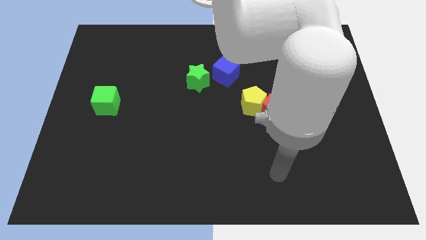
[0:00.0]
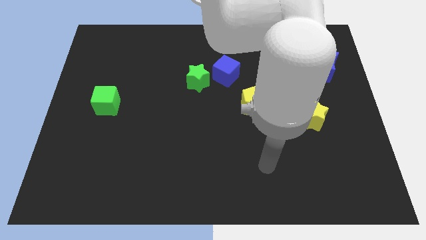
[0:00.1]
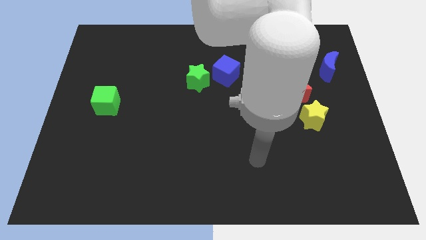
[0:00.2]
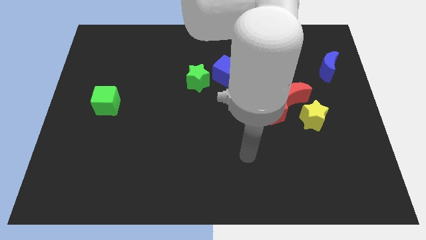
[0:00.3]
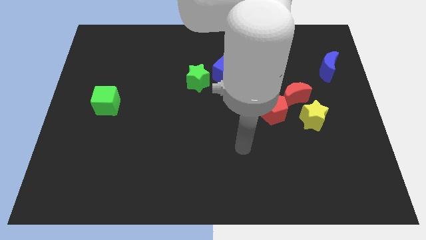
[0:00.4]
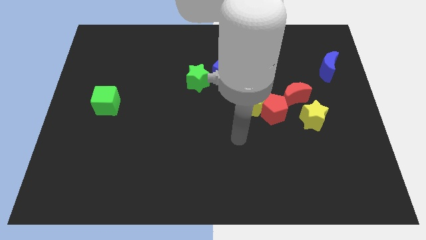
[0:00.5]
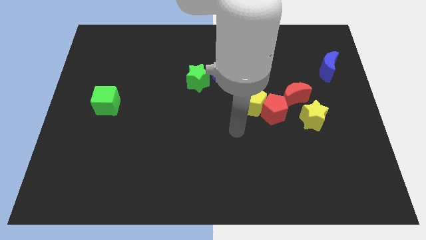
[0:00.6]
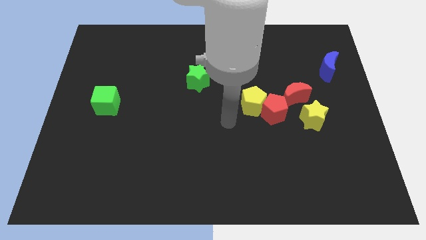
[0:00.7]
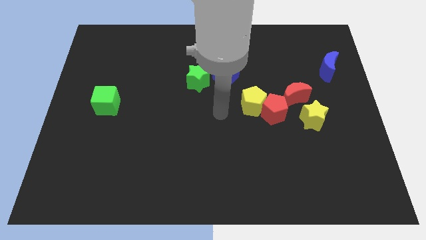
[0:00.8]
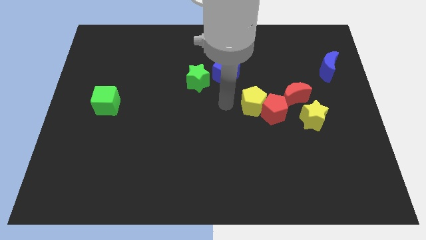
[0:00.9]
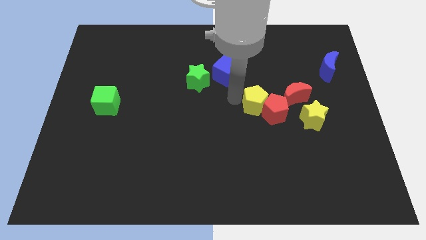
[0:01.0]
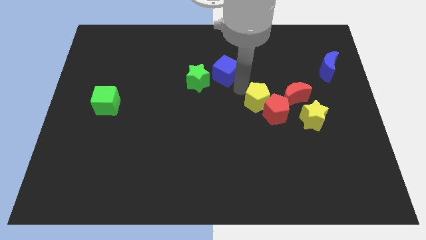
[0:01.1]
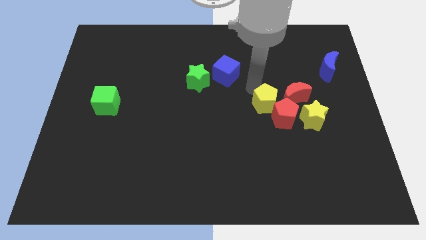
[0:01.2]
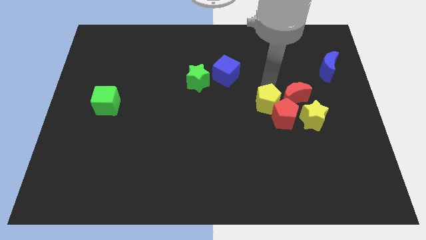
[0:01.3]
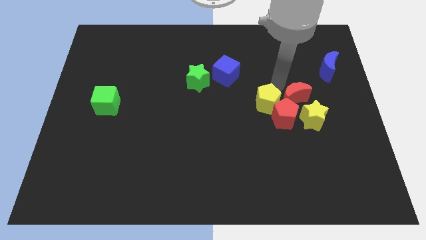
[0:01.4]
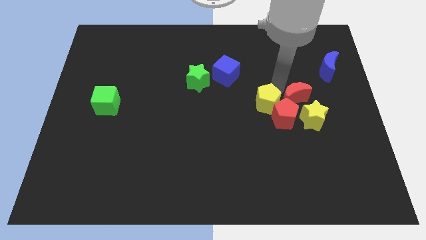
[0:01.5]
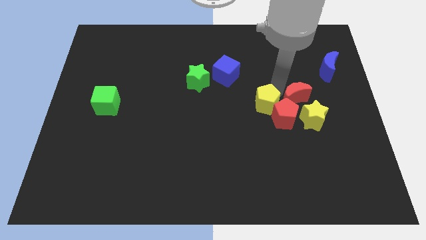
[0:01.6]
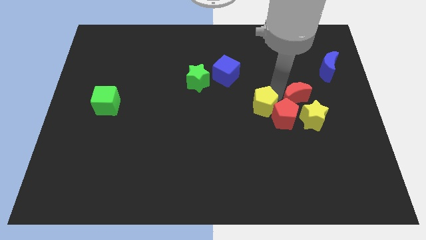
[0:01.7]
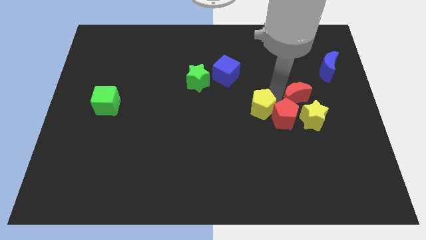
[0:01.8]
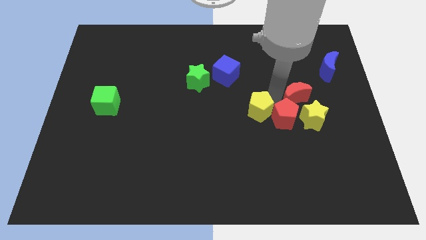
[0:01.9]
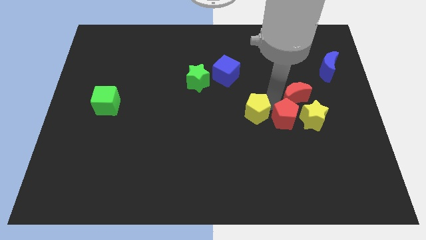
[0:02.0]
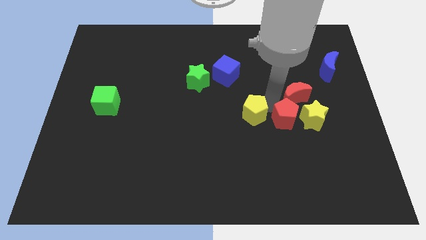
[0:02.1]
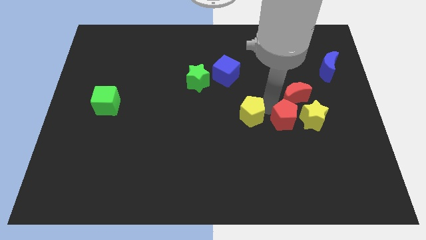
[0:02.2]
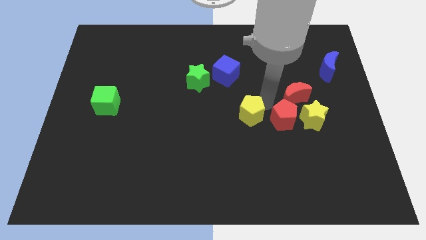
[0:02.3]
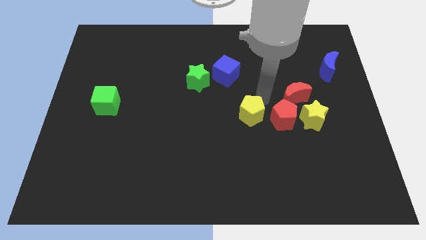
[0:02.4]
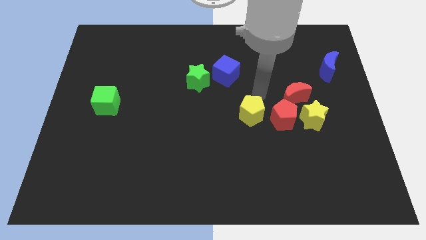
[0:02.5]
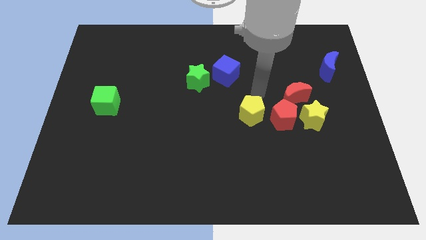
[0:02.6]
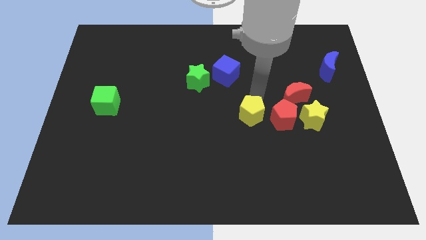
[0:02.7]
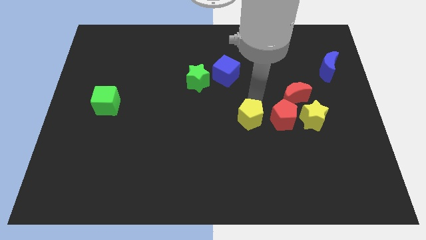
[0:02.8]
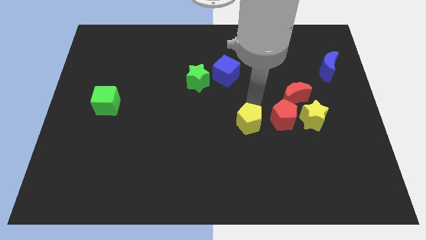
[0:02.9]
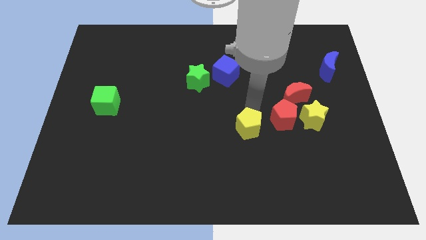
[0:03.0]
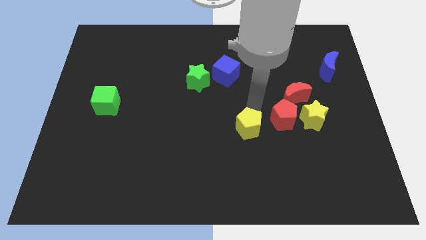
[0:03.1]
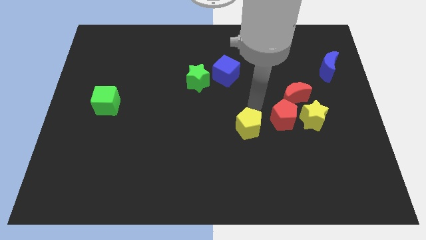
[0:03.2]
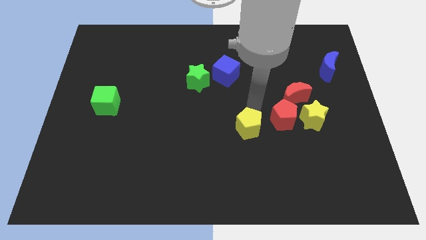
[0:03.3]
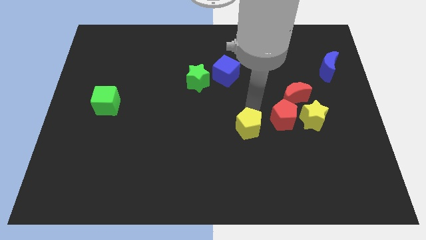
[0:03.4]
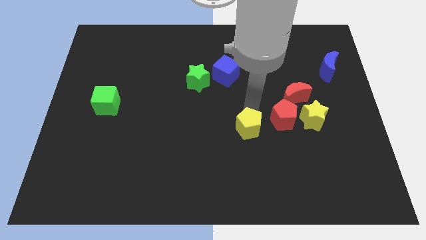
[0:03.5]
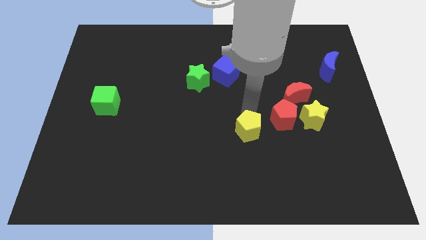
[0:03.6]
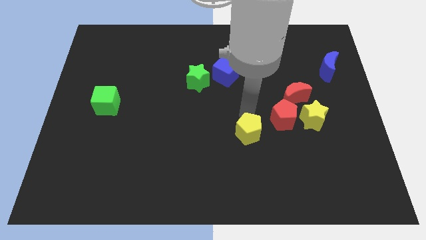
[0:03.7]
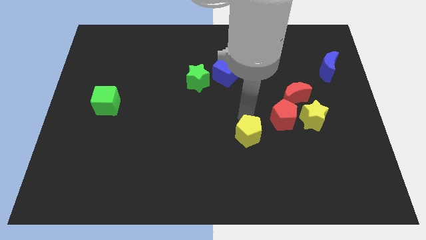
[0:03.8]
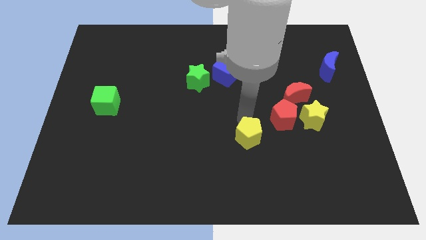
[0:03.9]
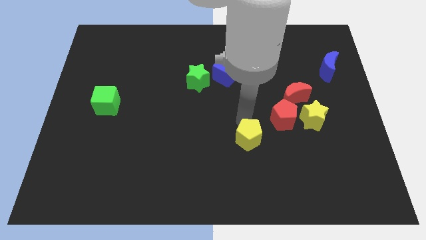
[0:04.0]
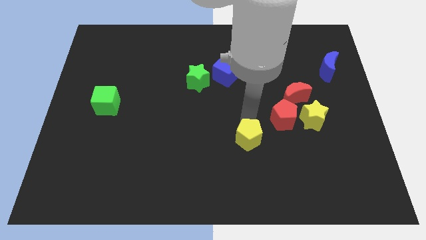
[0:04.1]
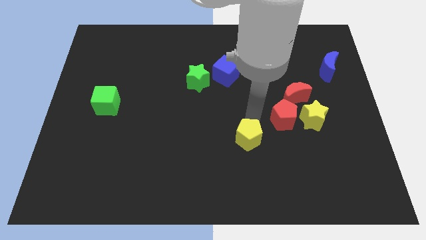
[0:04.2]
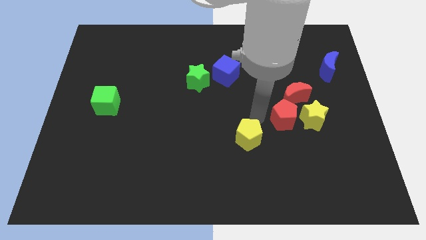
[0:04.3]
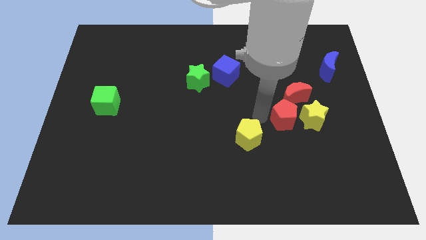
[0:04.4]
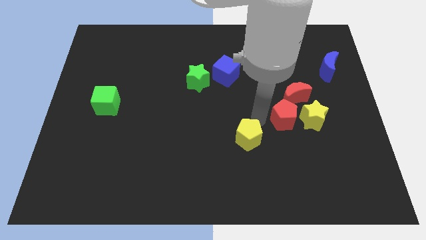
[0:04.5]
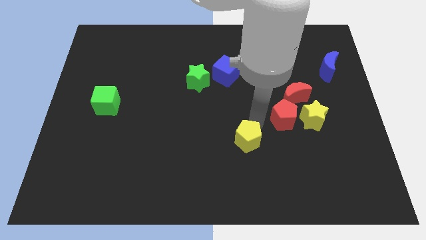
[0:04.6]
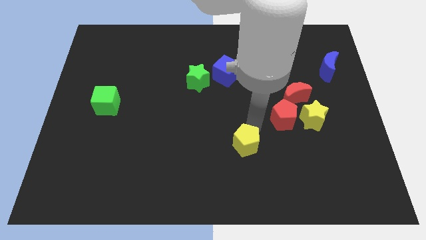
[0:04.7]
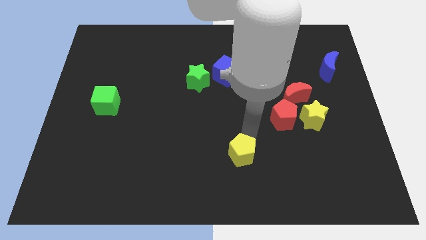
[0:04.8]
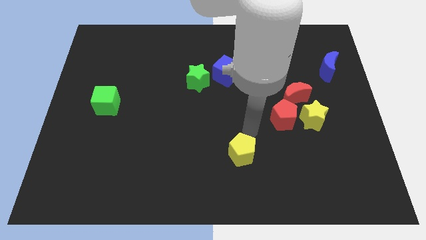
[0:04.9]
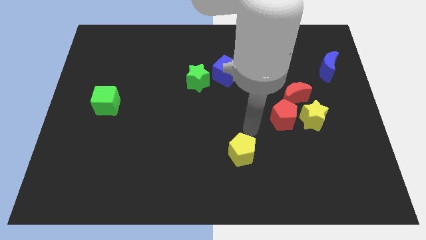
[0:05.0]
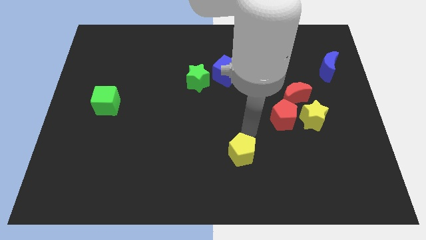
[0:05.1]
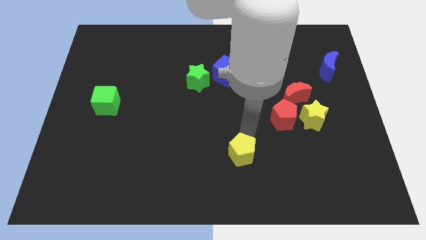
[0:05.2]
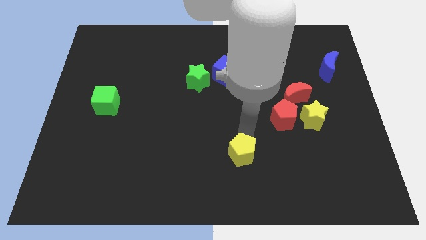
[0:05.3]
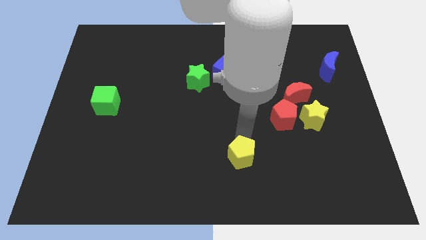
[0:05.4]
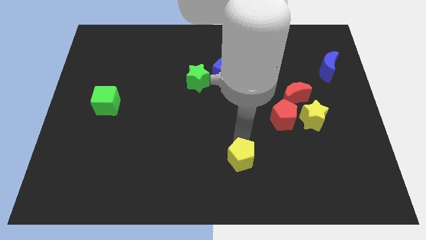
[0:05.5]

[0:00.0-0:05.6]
push the yellow pentagon to the bottom side

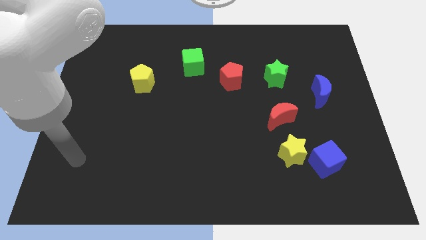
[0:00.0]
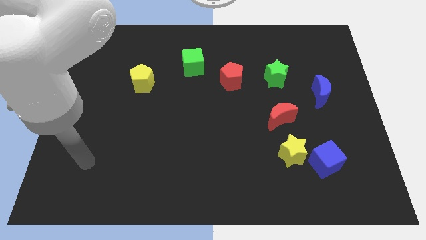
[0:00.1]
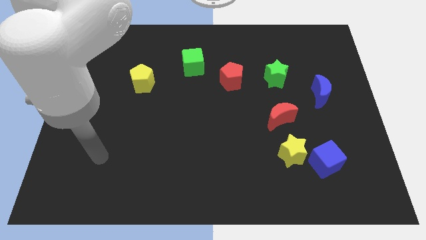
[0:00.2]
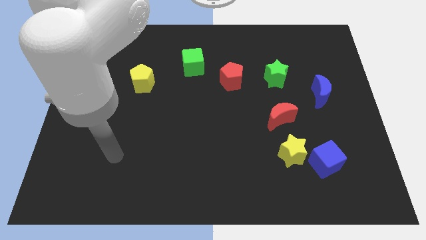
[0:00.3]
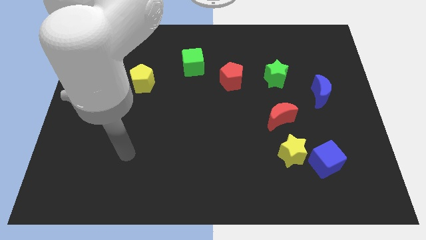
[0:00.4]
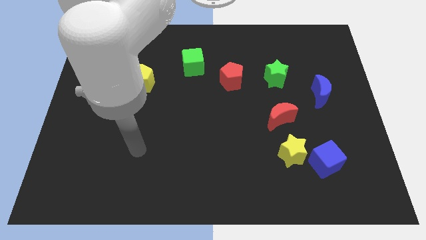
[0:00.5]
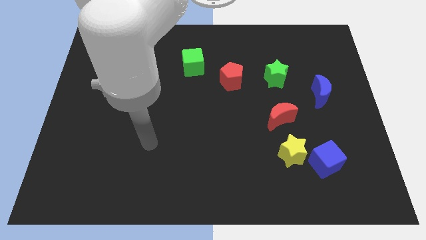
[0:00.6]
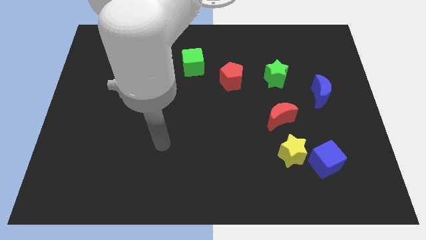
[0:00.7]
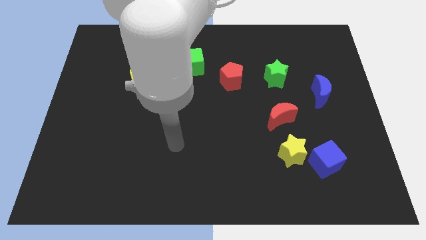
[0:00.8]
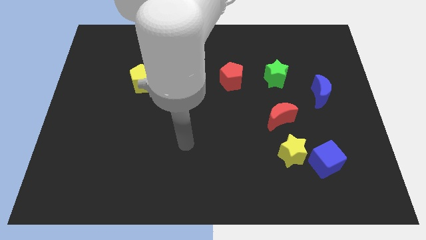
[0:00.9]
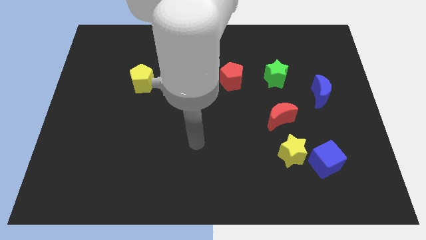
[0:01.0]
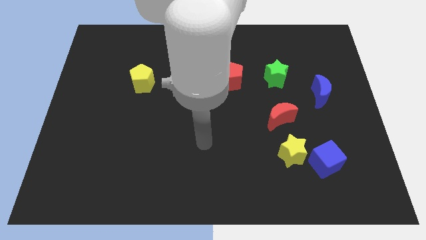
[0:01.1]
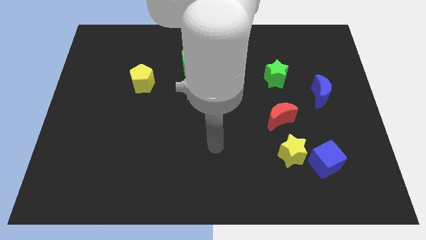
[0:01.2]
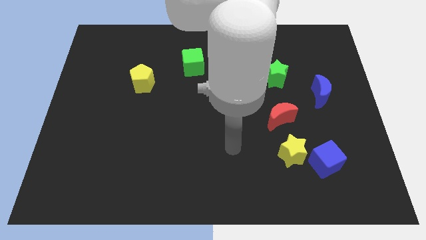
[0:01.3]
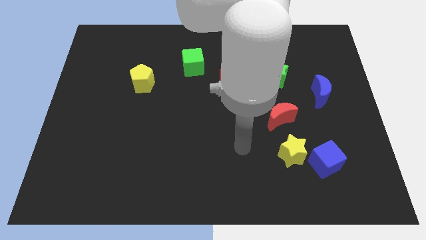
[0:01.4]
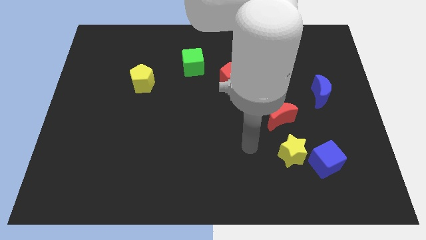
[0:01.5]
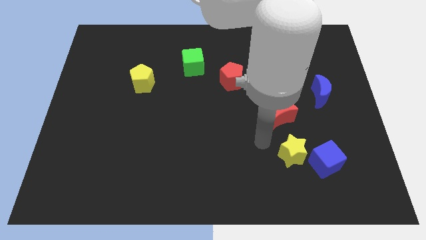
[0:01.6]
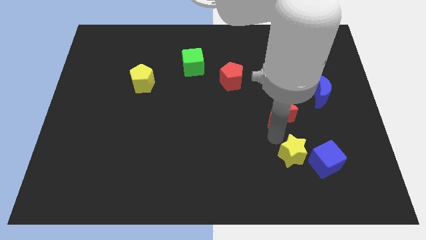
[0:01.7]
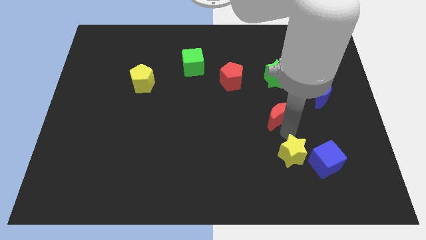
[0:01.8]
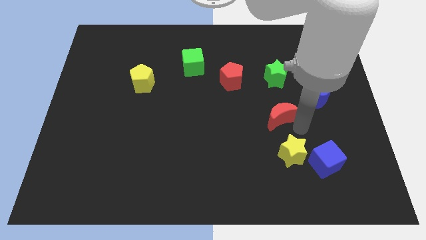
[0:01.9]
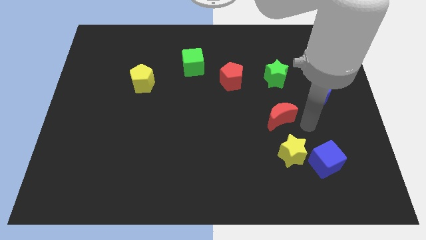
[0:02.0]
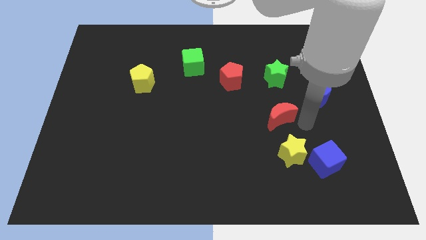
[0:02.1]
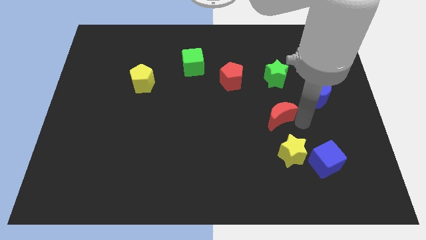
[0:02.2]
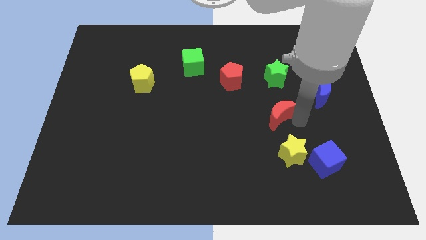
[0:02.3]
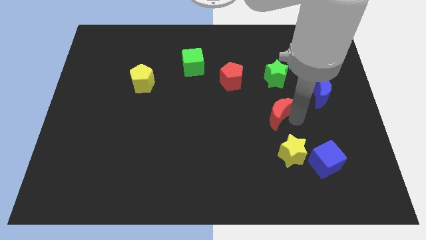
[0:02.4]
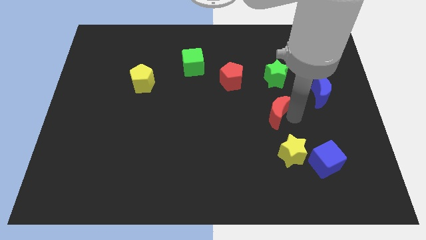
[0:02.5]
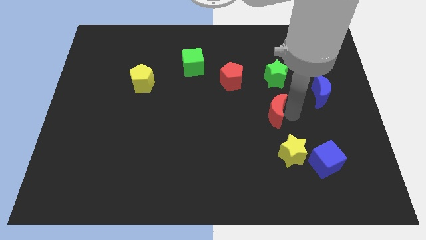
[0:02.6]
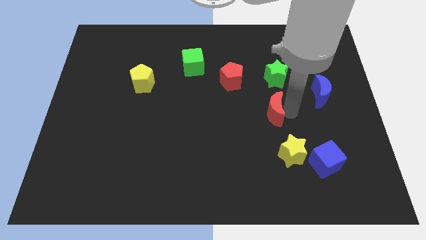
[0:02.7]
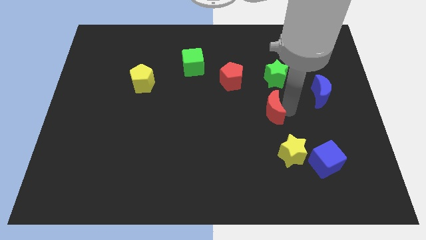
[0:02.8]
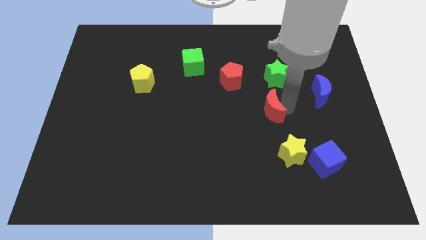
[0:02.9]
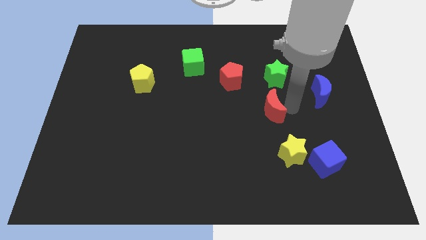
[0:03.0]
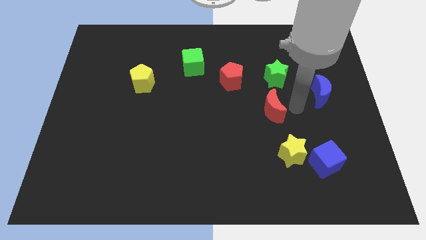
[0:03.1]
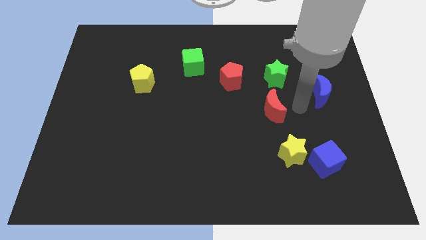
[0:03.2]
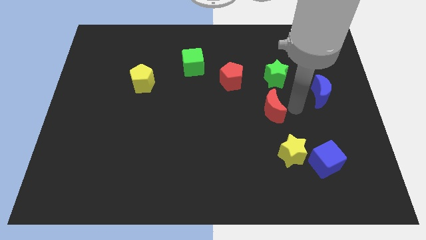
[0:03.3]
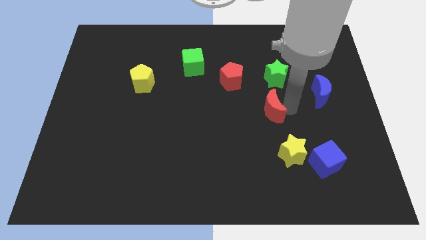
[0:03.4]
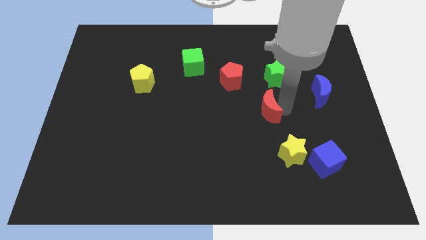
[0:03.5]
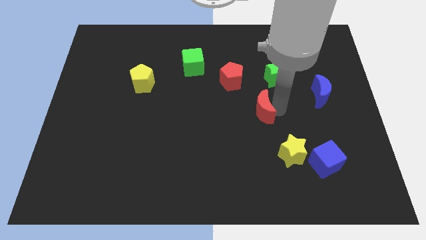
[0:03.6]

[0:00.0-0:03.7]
push the red moon to the center
